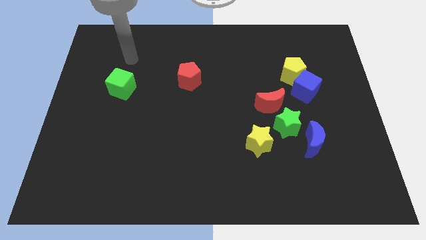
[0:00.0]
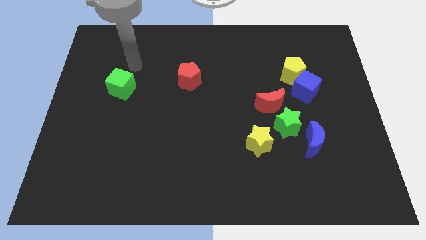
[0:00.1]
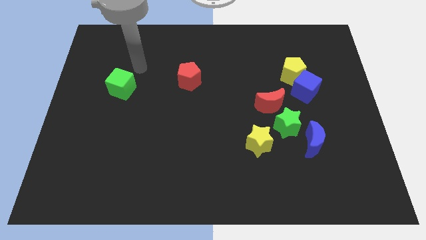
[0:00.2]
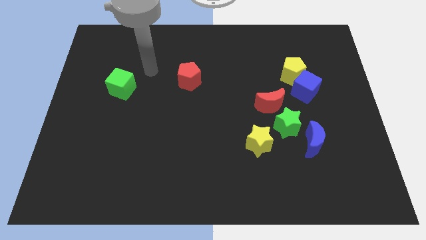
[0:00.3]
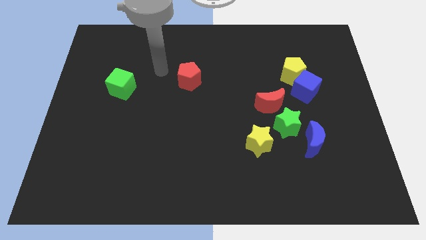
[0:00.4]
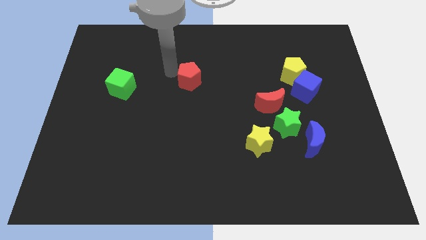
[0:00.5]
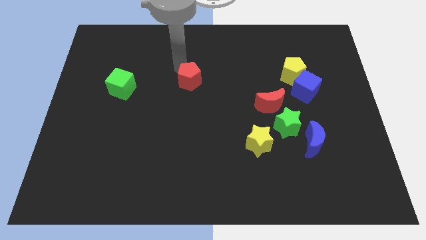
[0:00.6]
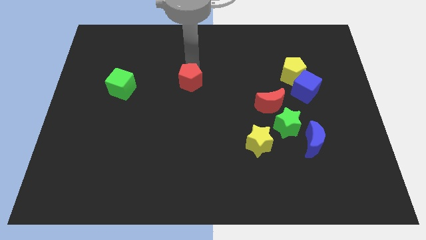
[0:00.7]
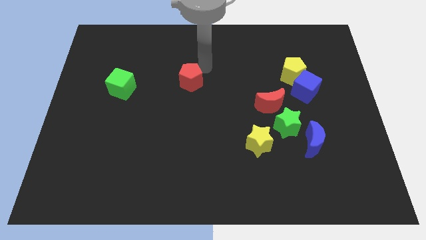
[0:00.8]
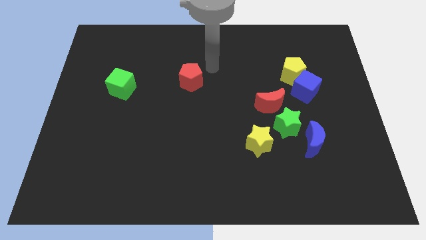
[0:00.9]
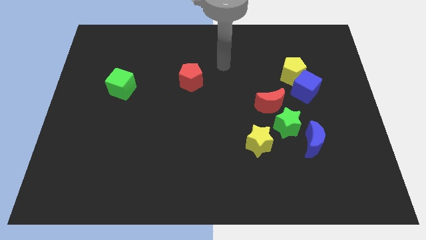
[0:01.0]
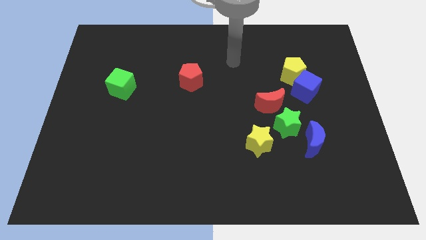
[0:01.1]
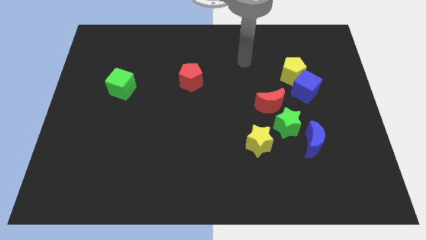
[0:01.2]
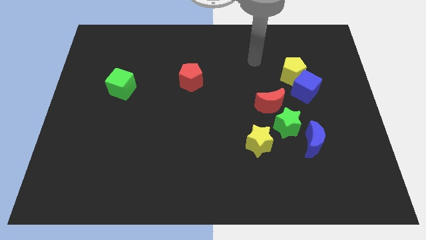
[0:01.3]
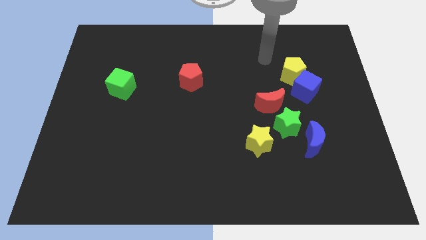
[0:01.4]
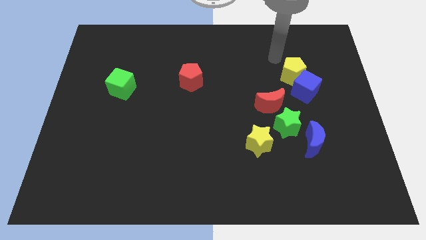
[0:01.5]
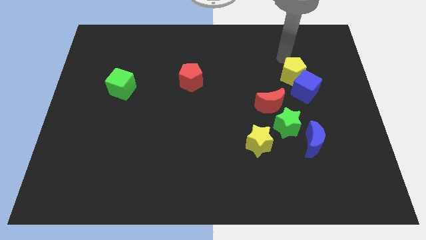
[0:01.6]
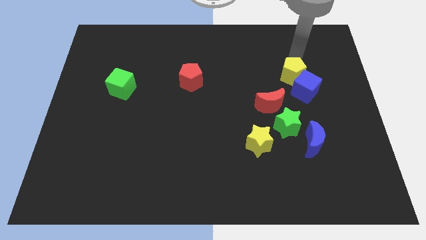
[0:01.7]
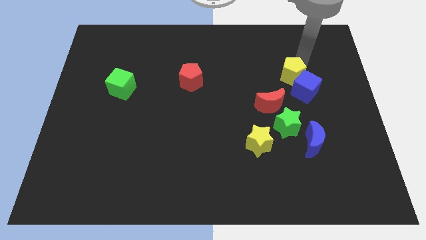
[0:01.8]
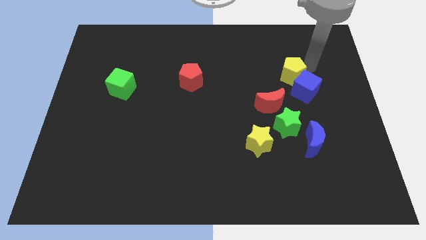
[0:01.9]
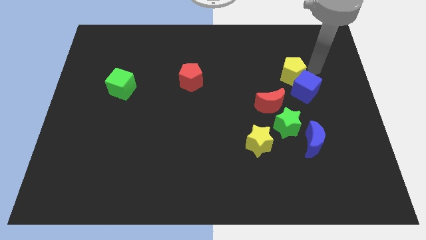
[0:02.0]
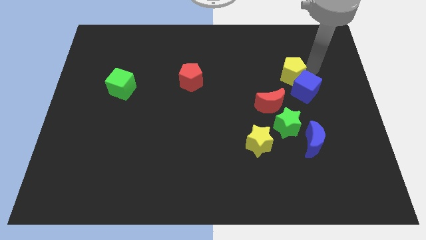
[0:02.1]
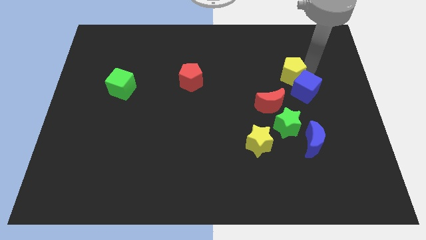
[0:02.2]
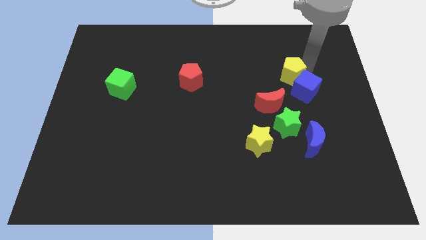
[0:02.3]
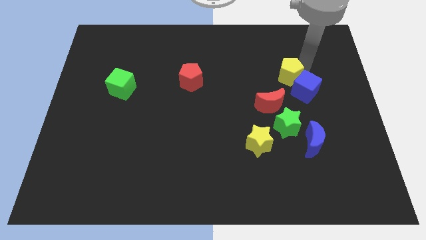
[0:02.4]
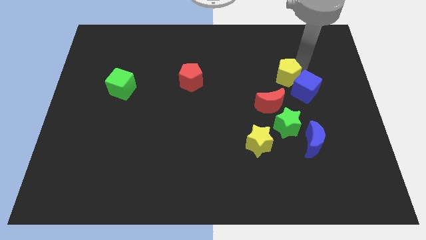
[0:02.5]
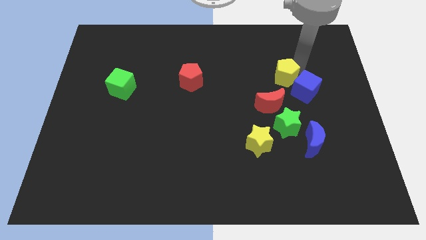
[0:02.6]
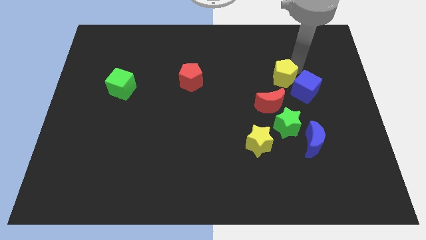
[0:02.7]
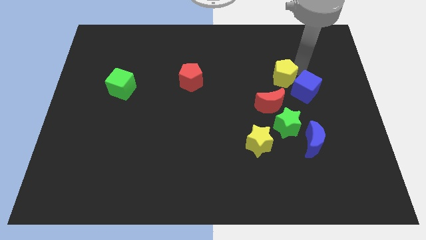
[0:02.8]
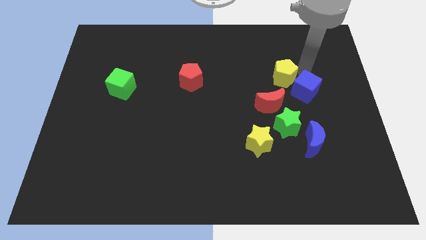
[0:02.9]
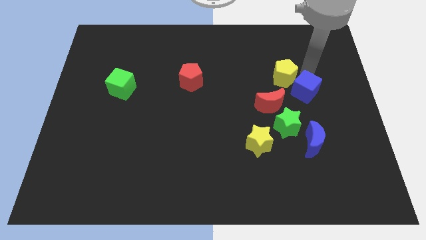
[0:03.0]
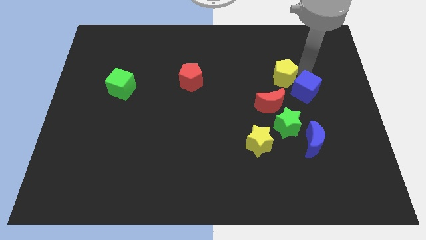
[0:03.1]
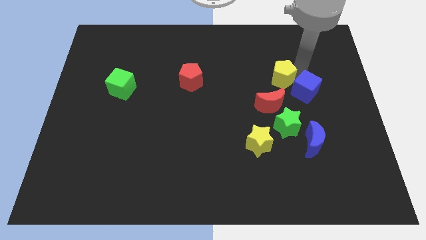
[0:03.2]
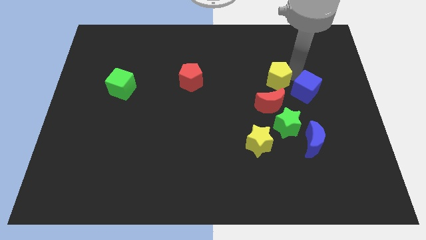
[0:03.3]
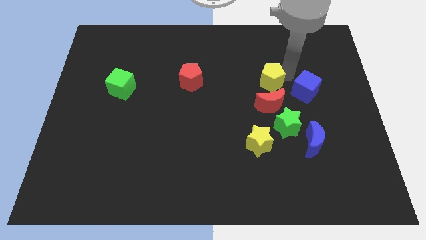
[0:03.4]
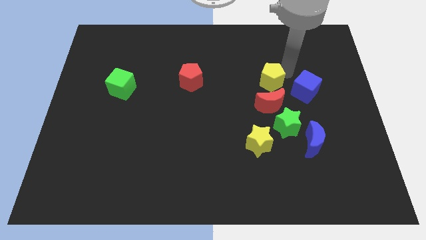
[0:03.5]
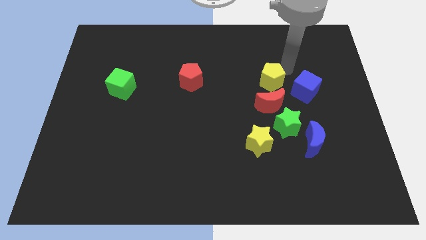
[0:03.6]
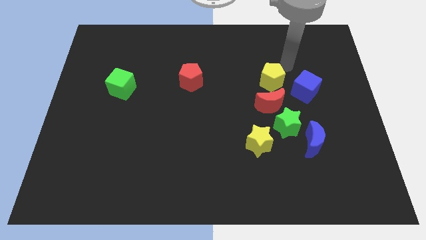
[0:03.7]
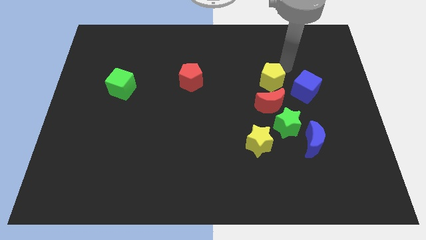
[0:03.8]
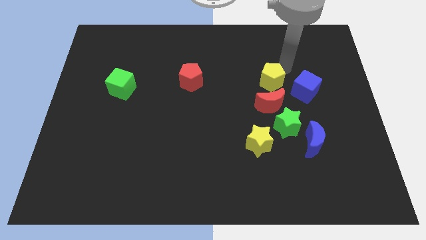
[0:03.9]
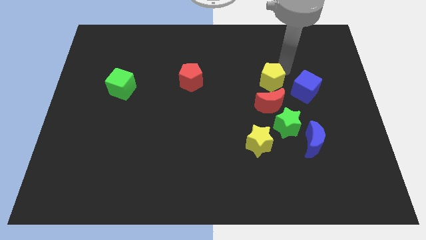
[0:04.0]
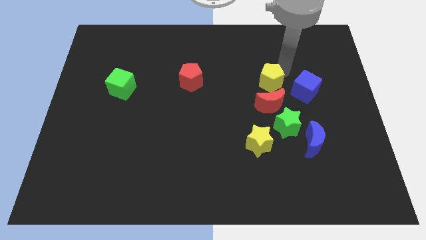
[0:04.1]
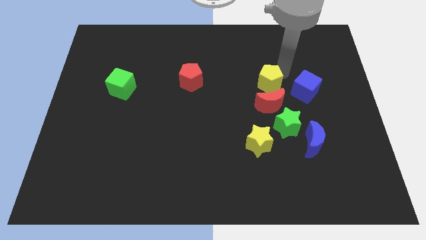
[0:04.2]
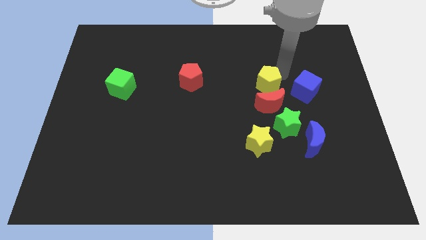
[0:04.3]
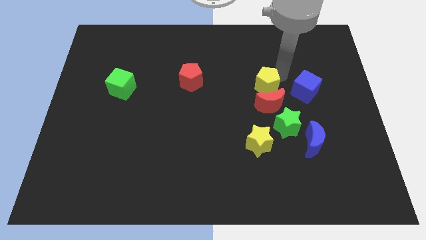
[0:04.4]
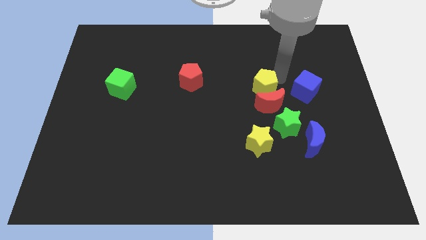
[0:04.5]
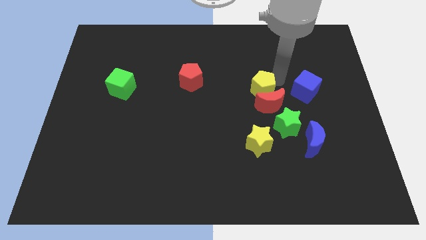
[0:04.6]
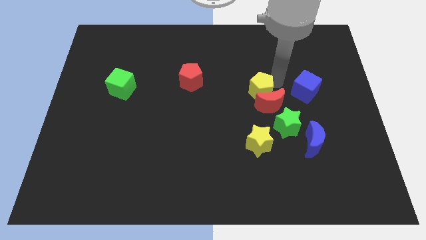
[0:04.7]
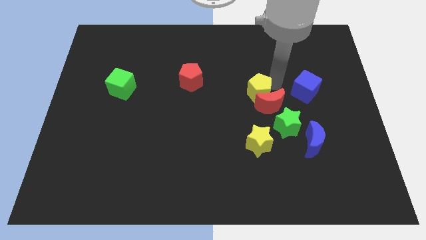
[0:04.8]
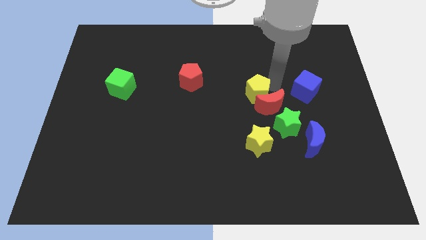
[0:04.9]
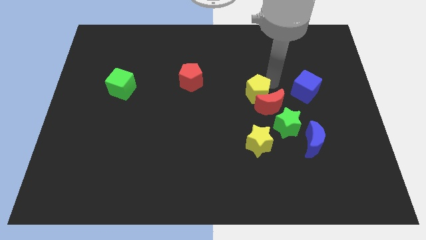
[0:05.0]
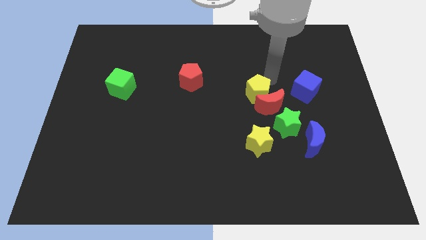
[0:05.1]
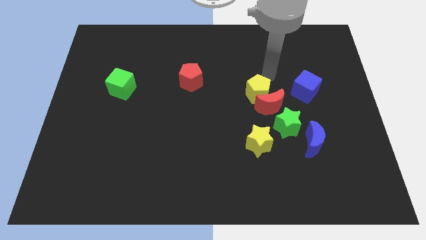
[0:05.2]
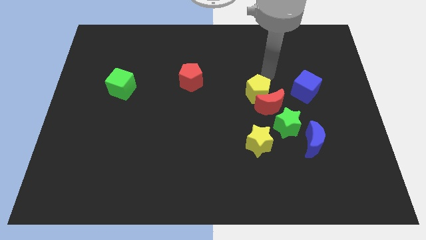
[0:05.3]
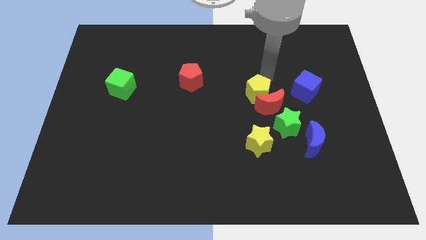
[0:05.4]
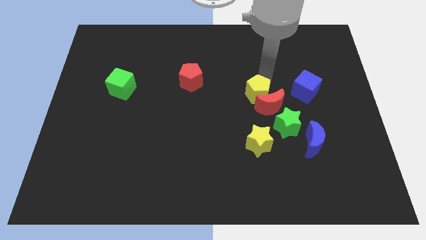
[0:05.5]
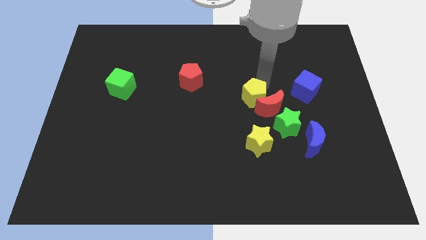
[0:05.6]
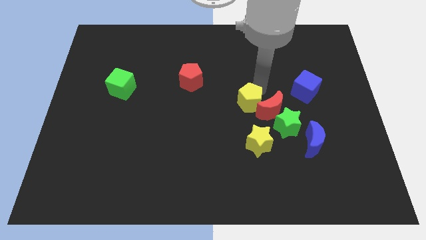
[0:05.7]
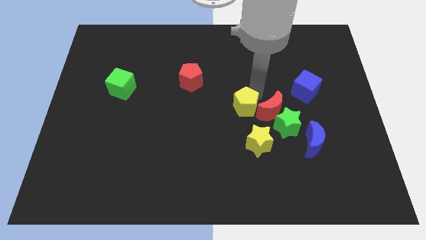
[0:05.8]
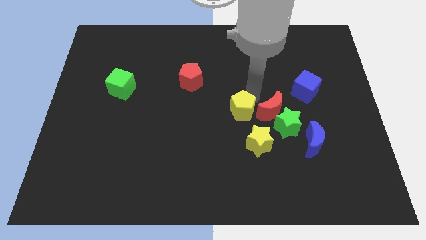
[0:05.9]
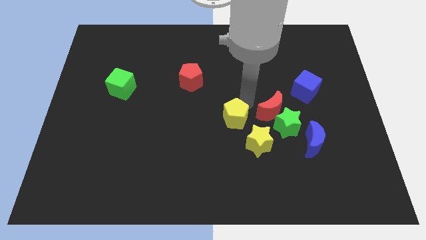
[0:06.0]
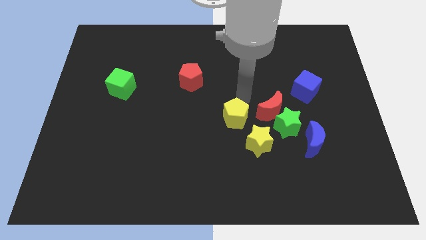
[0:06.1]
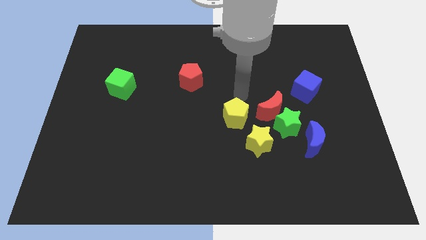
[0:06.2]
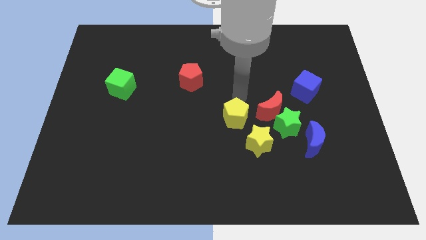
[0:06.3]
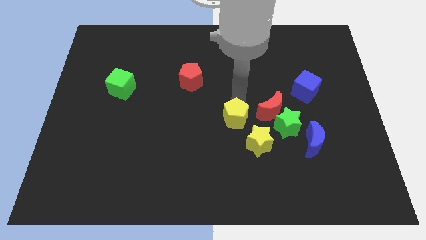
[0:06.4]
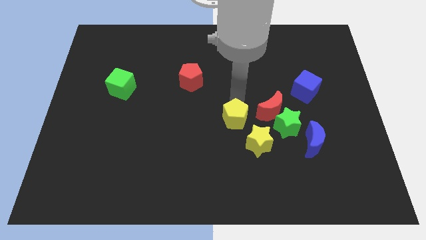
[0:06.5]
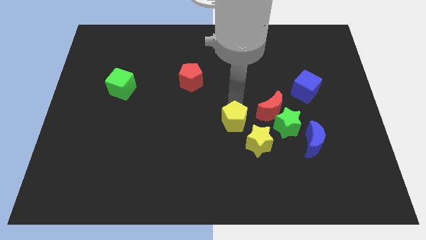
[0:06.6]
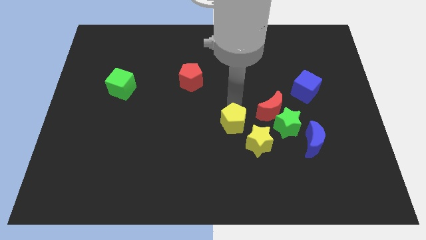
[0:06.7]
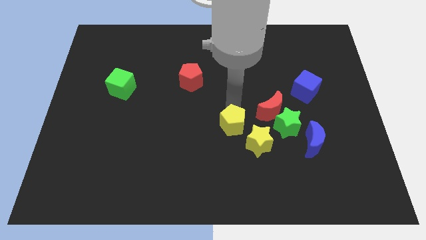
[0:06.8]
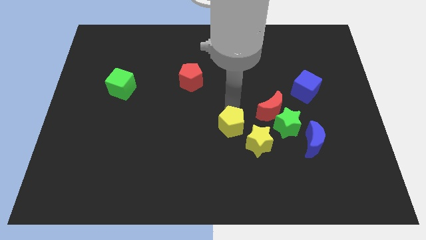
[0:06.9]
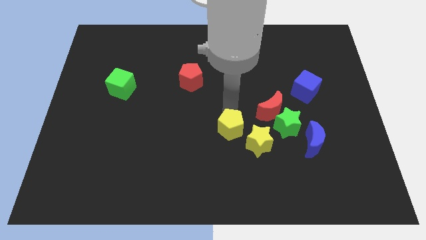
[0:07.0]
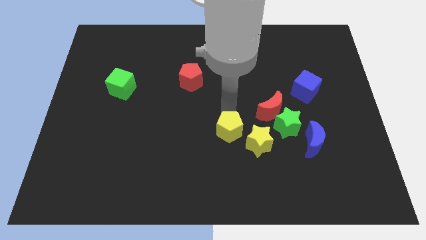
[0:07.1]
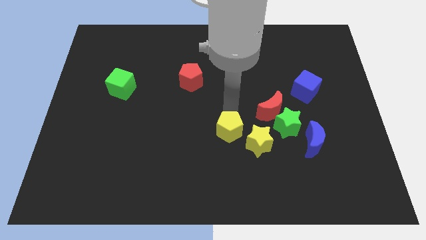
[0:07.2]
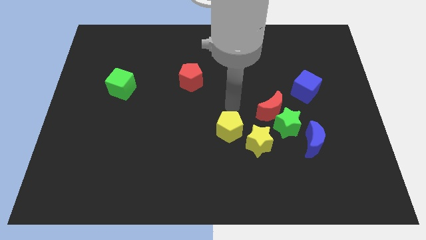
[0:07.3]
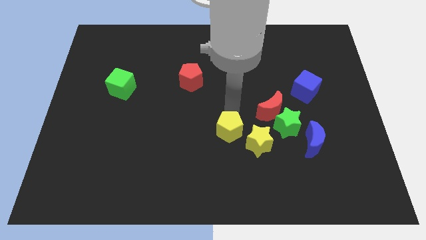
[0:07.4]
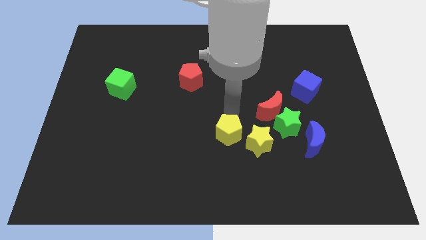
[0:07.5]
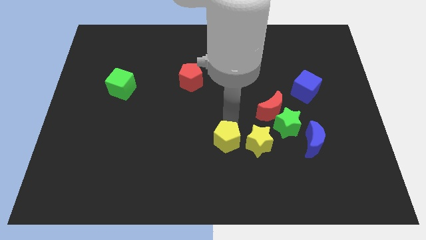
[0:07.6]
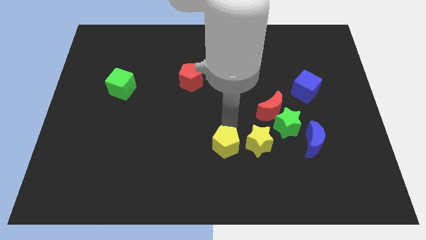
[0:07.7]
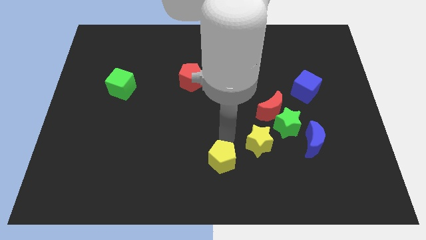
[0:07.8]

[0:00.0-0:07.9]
move the yellow pentagon to the bottom

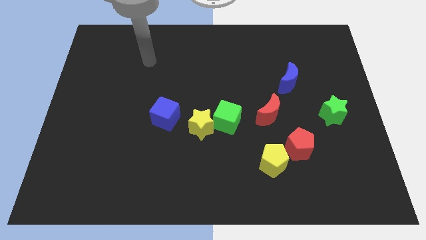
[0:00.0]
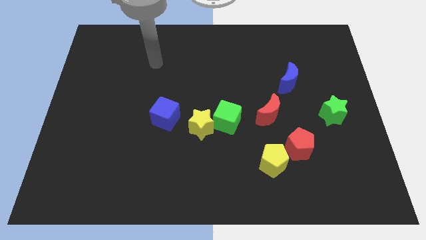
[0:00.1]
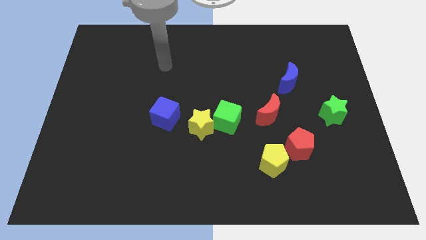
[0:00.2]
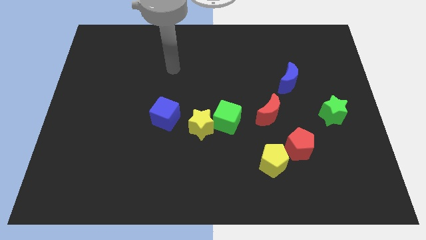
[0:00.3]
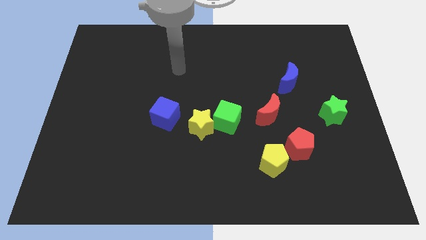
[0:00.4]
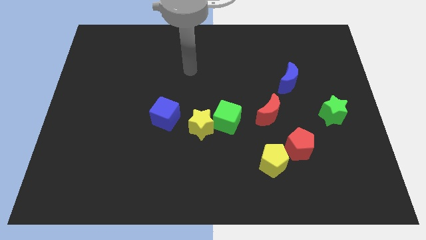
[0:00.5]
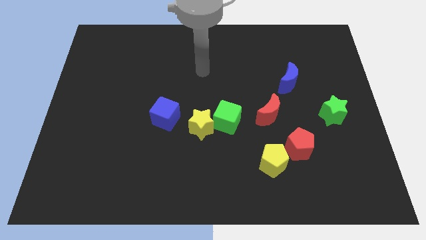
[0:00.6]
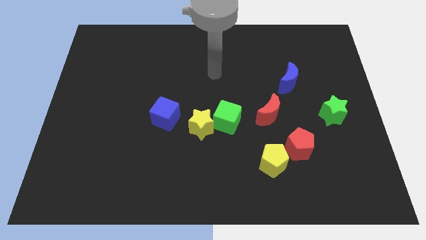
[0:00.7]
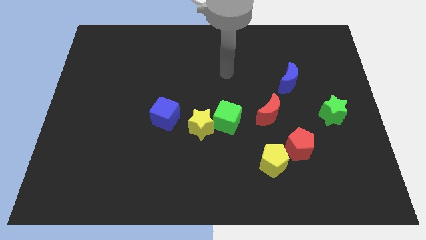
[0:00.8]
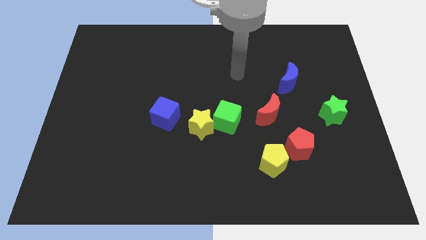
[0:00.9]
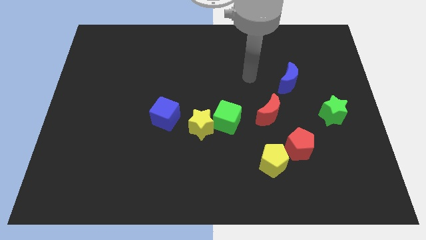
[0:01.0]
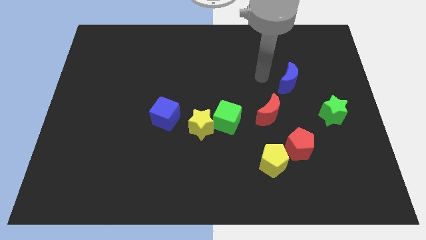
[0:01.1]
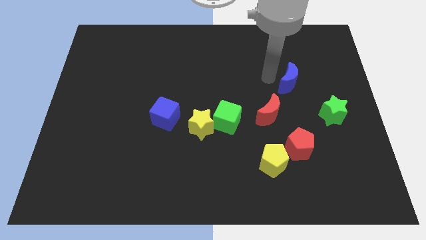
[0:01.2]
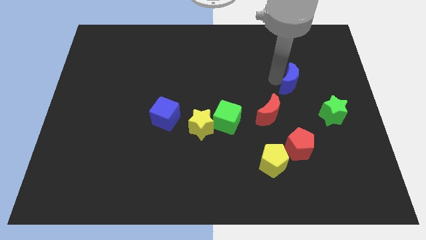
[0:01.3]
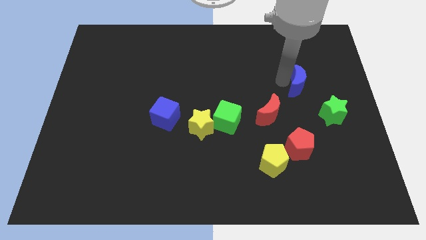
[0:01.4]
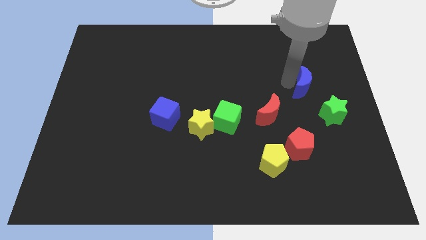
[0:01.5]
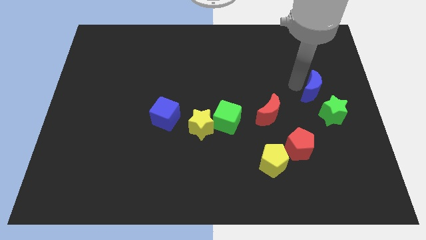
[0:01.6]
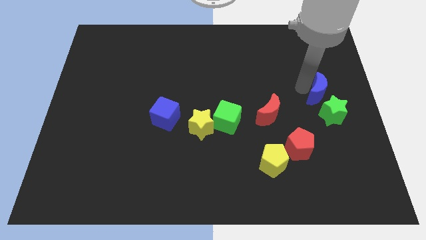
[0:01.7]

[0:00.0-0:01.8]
move the blue moon to the center right
